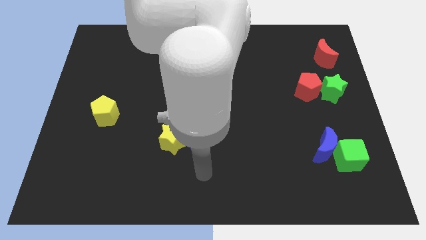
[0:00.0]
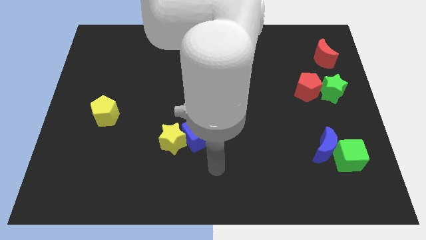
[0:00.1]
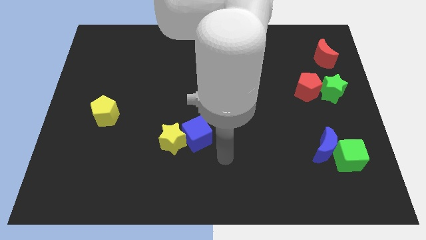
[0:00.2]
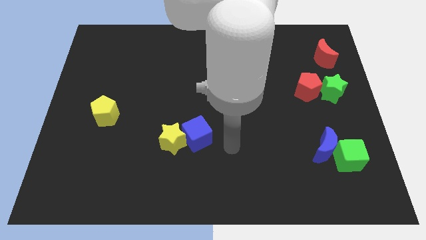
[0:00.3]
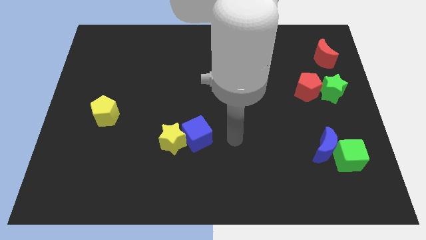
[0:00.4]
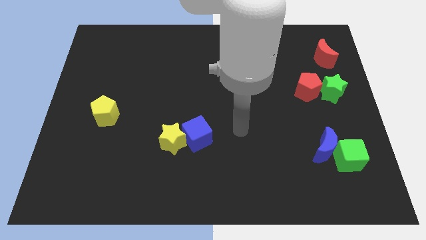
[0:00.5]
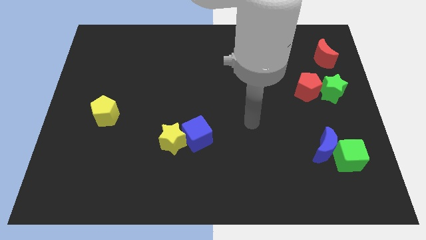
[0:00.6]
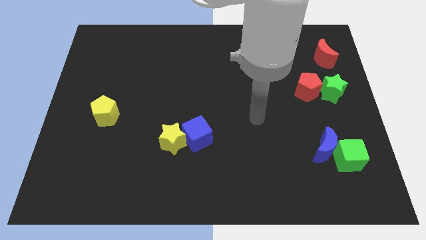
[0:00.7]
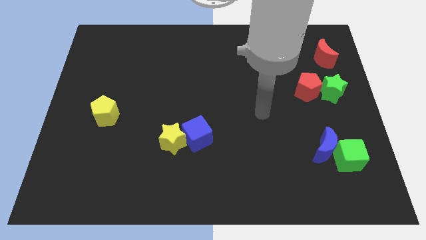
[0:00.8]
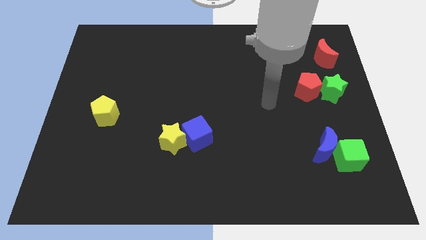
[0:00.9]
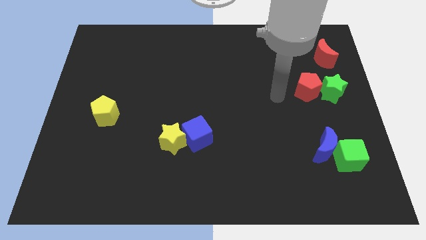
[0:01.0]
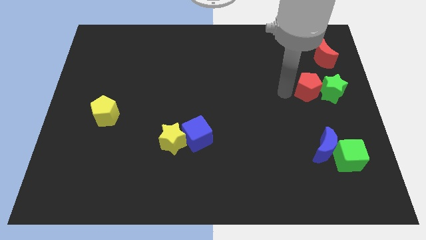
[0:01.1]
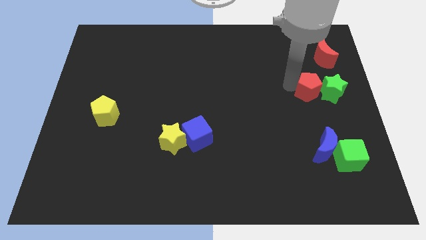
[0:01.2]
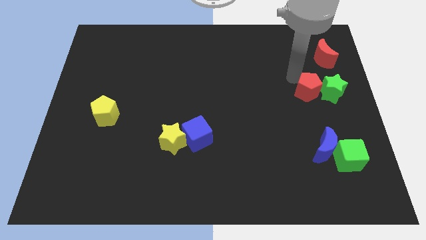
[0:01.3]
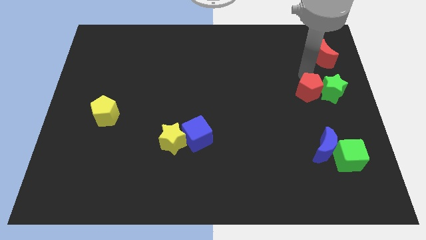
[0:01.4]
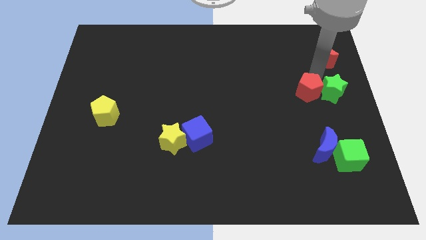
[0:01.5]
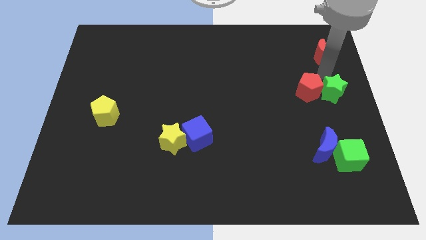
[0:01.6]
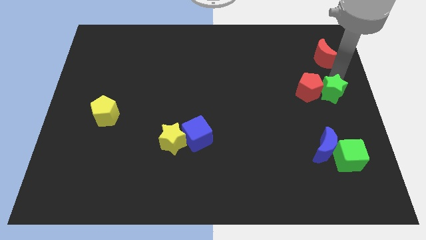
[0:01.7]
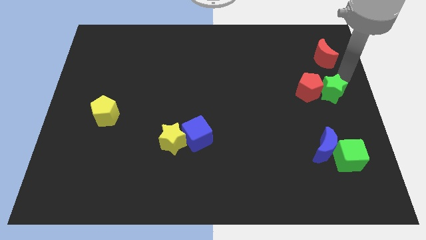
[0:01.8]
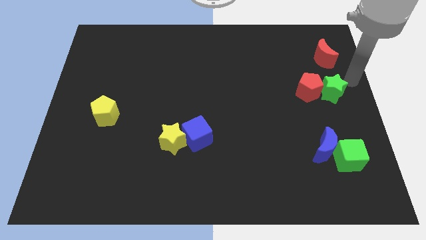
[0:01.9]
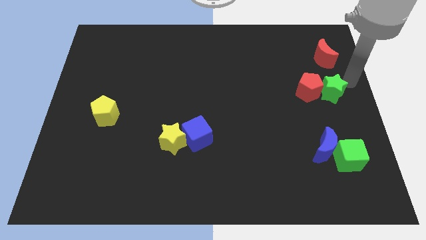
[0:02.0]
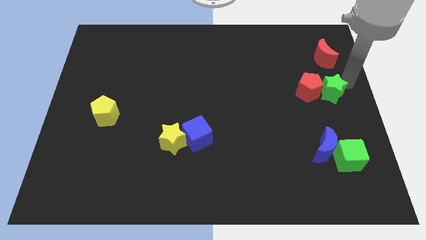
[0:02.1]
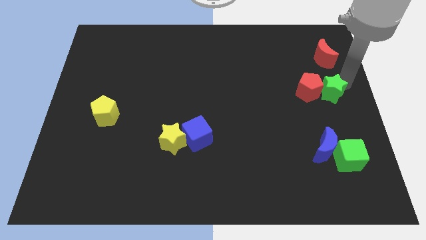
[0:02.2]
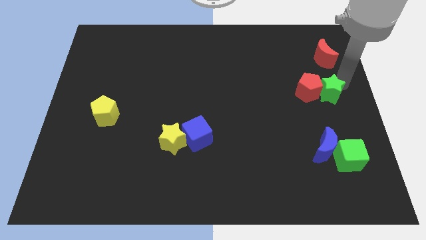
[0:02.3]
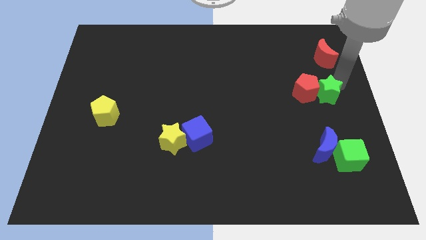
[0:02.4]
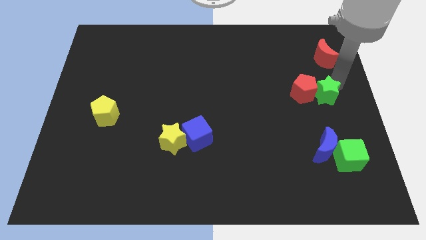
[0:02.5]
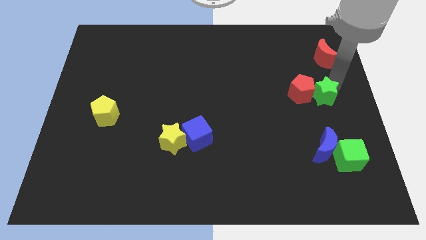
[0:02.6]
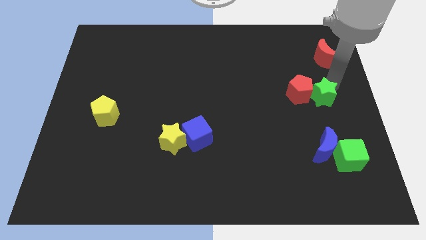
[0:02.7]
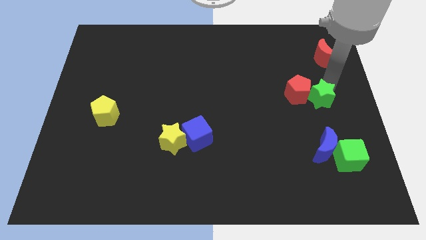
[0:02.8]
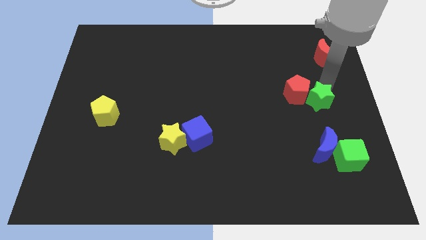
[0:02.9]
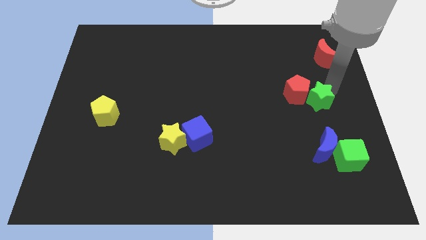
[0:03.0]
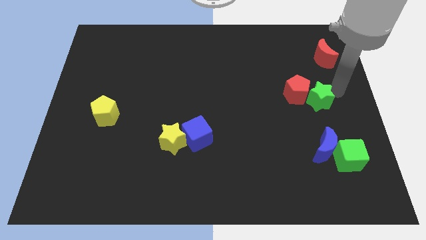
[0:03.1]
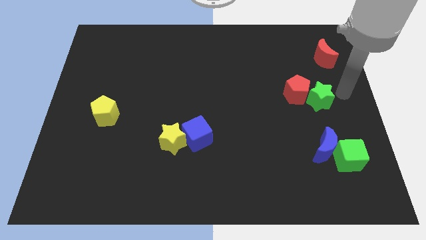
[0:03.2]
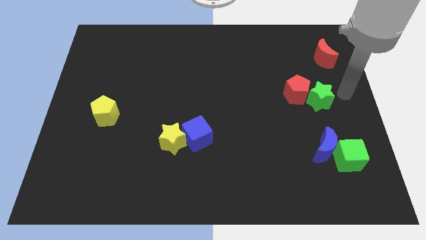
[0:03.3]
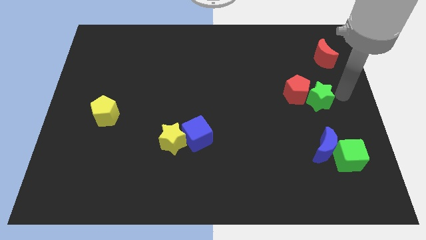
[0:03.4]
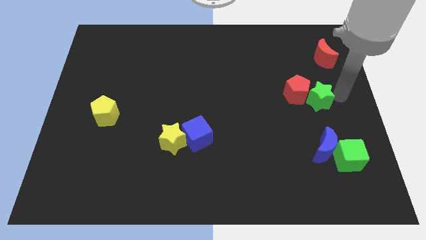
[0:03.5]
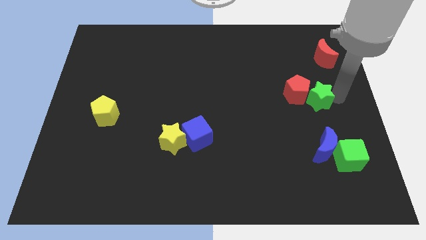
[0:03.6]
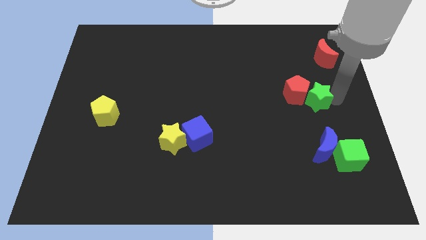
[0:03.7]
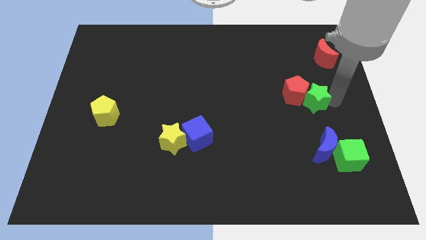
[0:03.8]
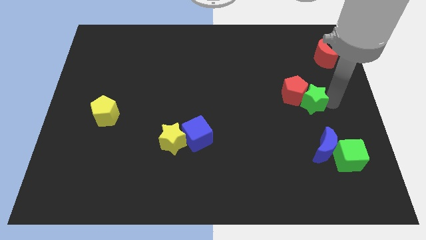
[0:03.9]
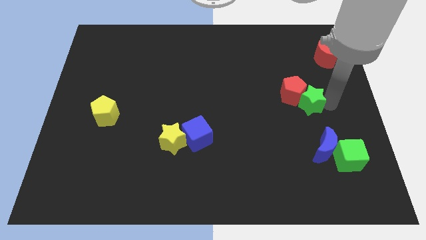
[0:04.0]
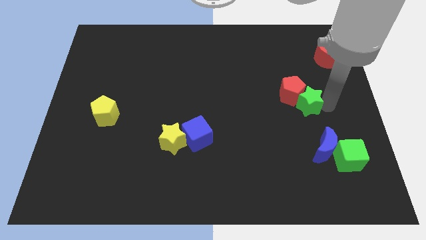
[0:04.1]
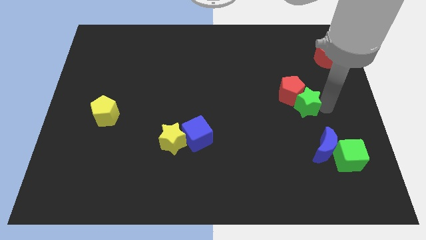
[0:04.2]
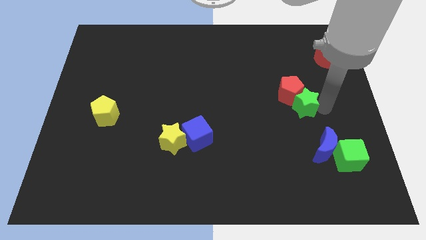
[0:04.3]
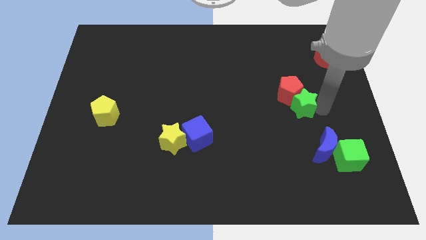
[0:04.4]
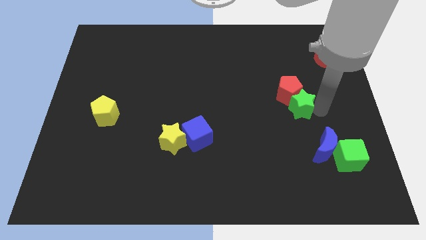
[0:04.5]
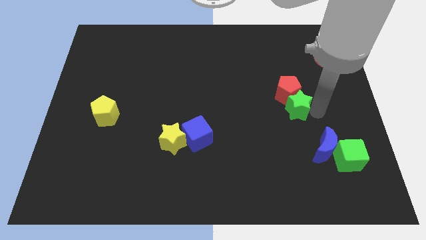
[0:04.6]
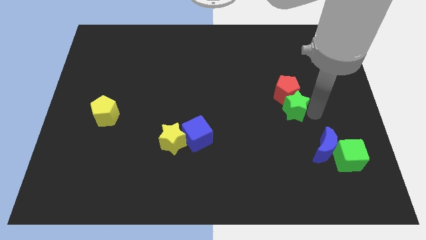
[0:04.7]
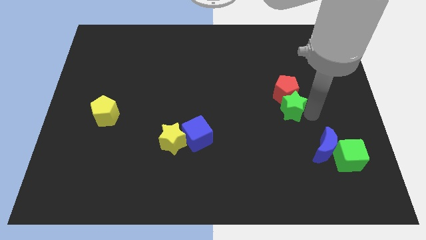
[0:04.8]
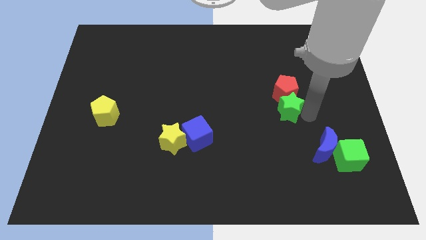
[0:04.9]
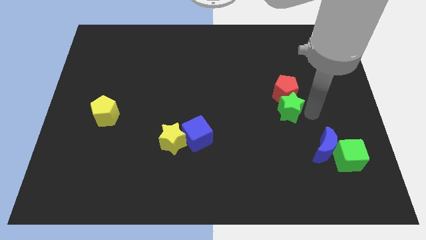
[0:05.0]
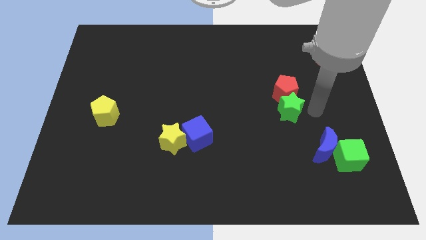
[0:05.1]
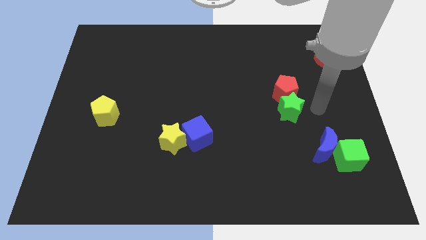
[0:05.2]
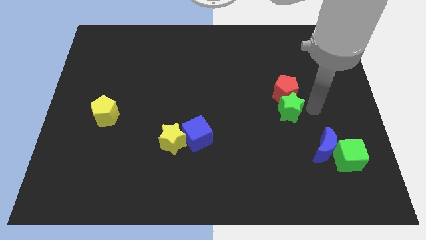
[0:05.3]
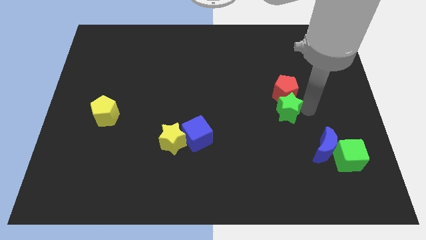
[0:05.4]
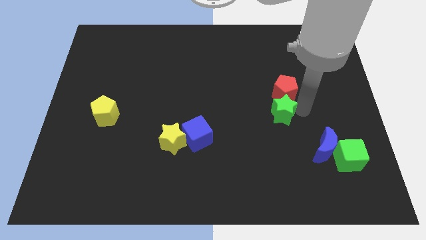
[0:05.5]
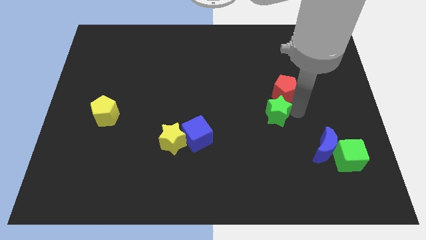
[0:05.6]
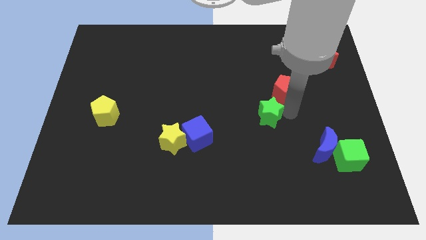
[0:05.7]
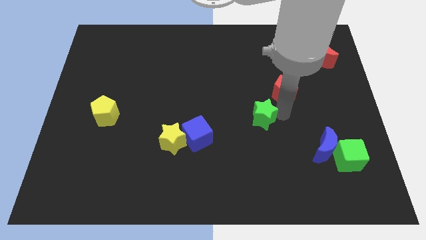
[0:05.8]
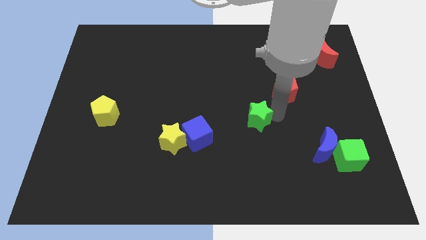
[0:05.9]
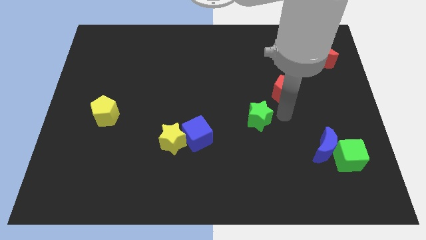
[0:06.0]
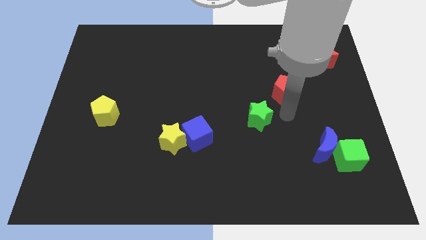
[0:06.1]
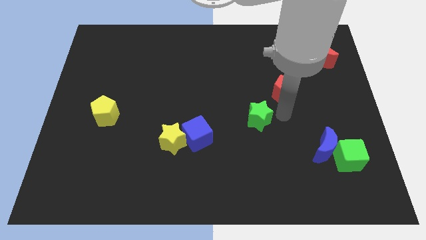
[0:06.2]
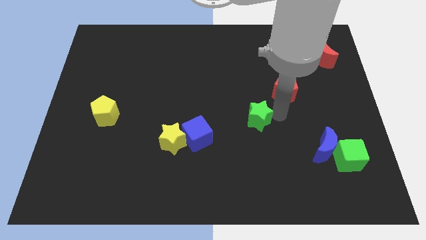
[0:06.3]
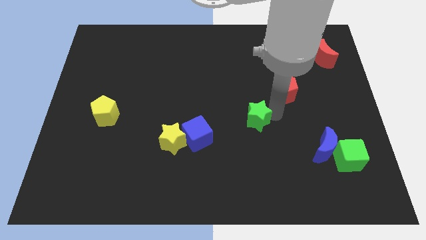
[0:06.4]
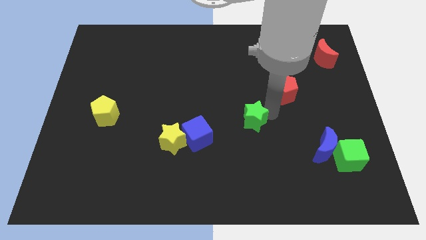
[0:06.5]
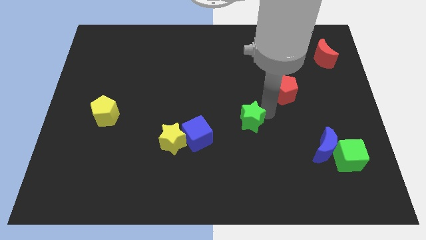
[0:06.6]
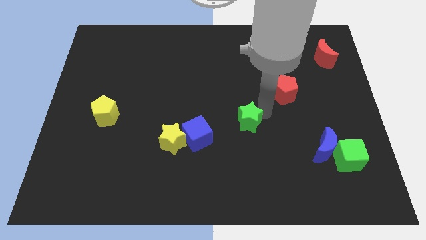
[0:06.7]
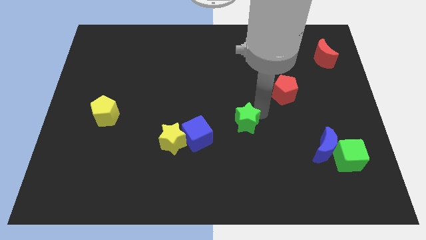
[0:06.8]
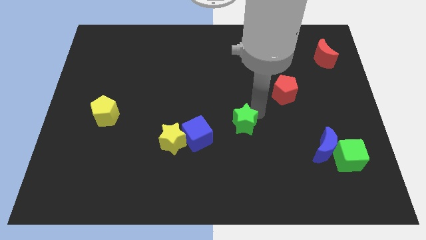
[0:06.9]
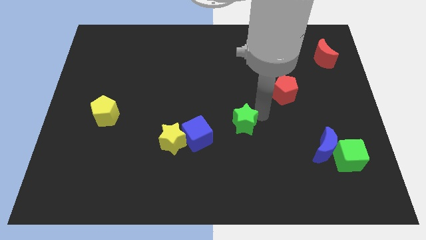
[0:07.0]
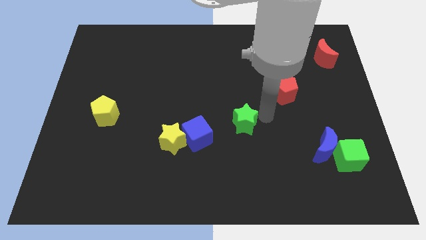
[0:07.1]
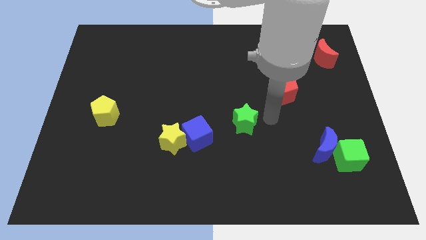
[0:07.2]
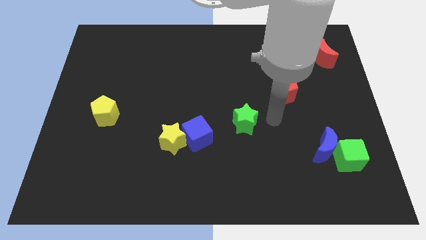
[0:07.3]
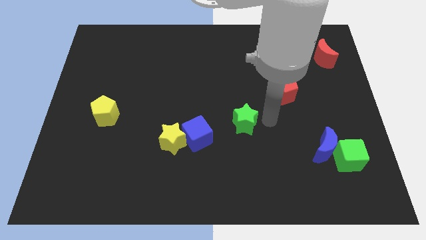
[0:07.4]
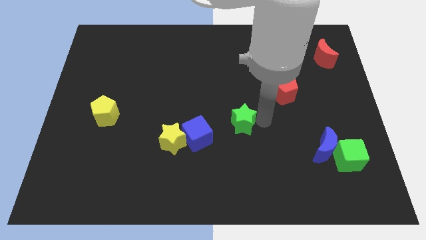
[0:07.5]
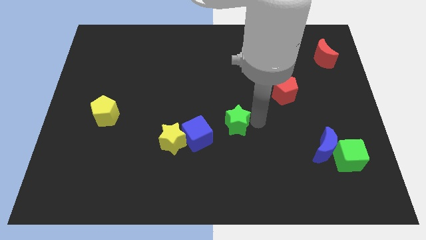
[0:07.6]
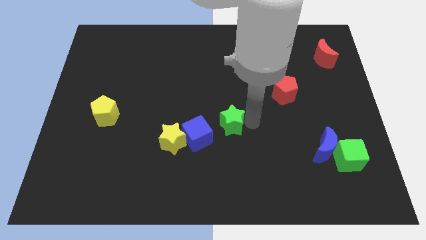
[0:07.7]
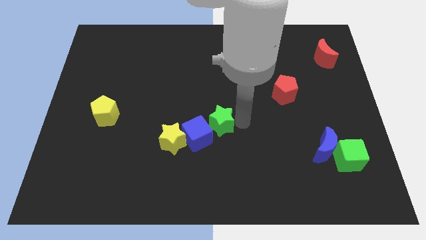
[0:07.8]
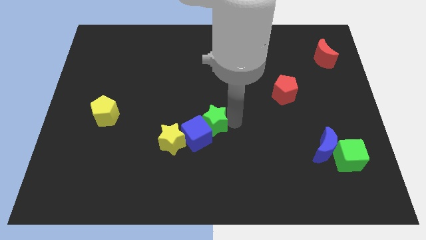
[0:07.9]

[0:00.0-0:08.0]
put the green star close to the blue cube
